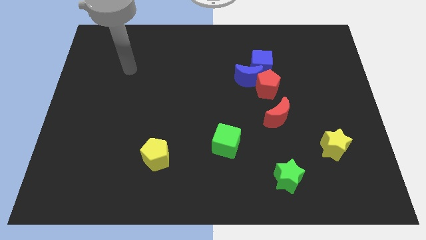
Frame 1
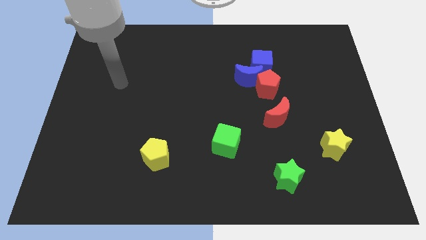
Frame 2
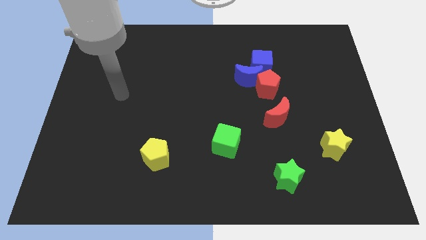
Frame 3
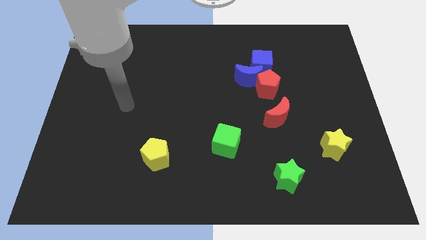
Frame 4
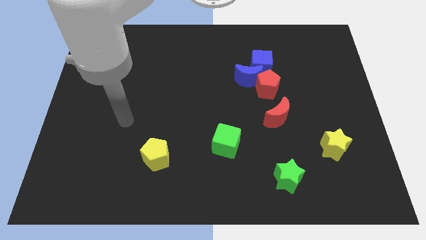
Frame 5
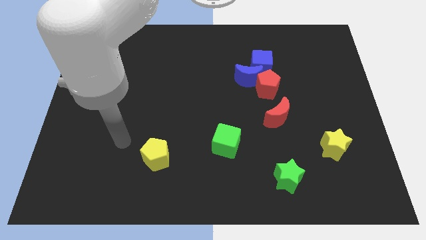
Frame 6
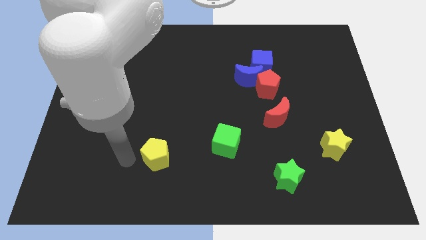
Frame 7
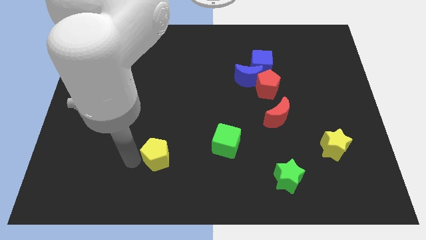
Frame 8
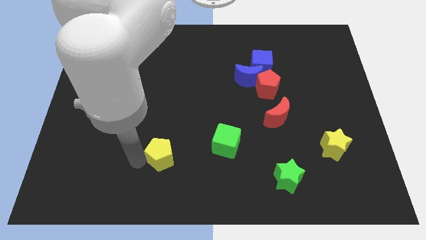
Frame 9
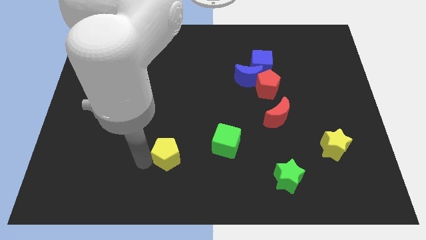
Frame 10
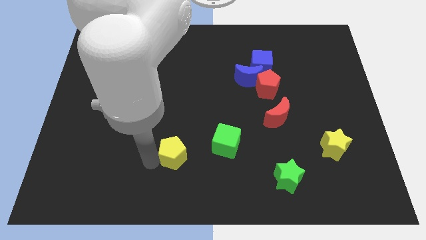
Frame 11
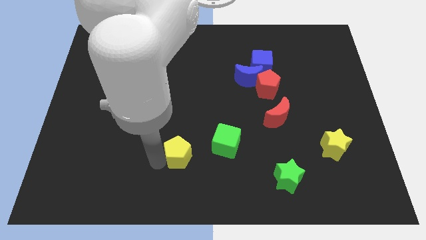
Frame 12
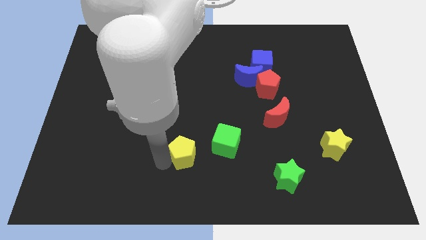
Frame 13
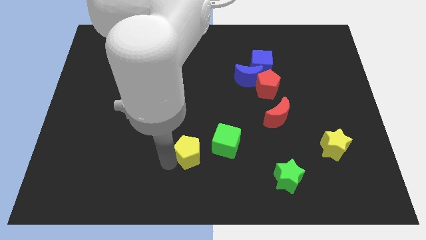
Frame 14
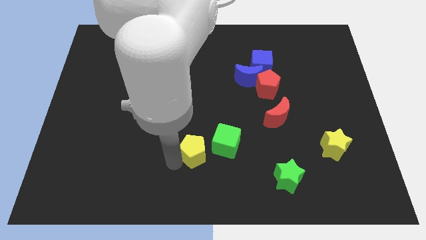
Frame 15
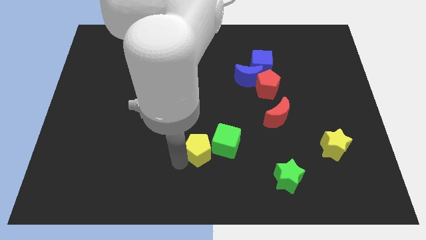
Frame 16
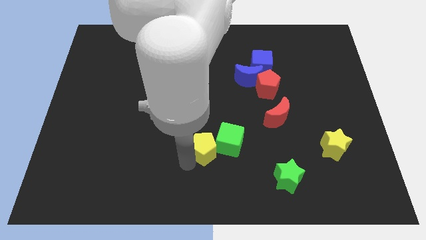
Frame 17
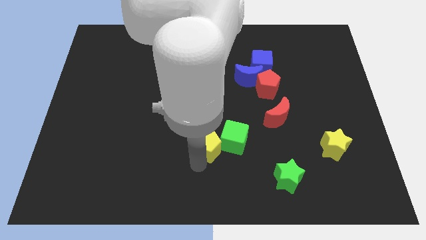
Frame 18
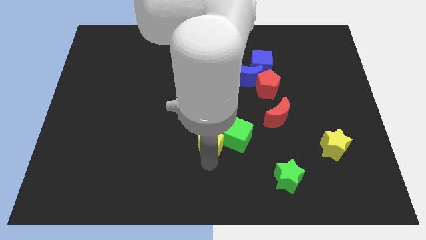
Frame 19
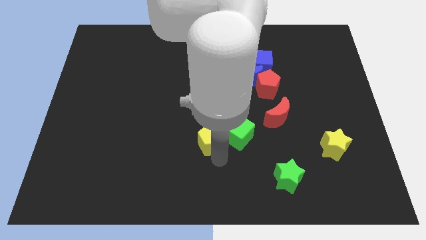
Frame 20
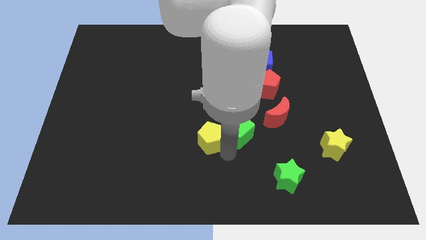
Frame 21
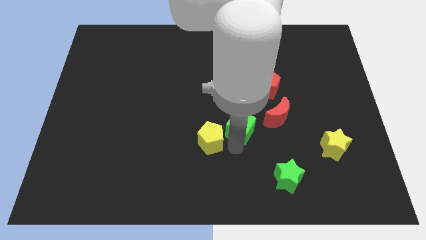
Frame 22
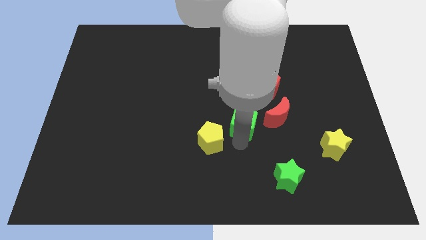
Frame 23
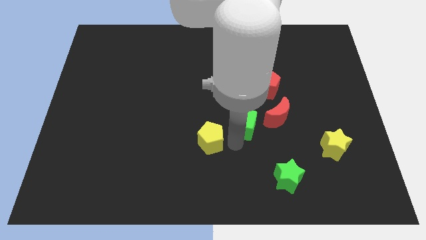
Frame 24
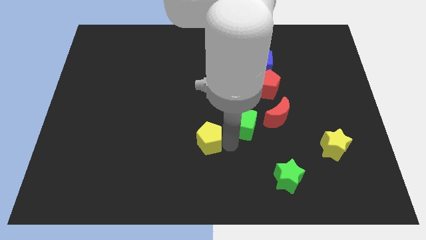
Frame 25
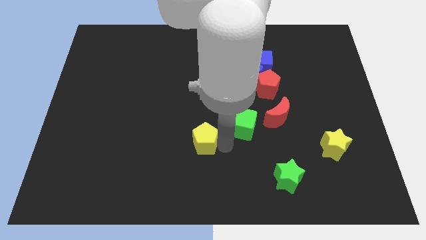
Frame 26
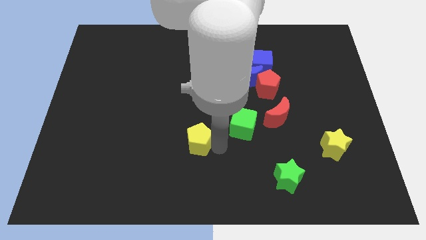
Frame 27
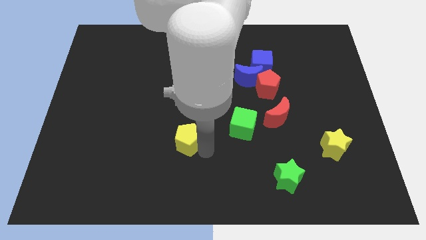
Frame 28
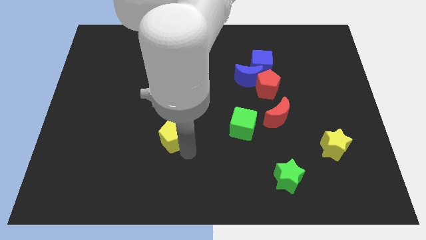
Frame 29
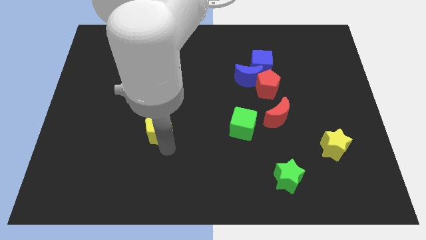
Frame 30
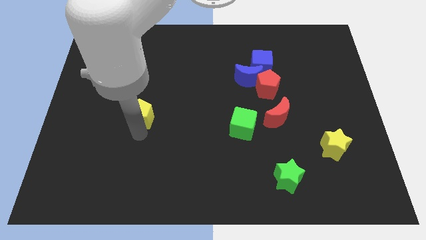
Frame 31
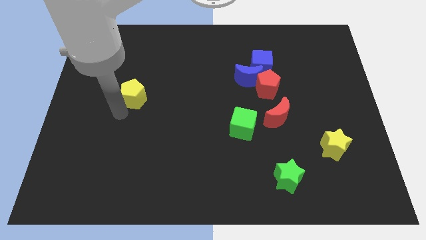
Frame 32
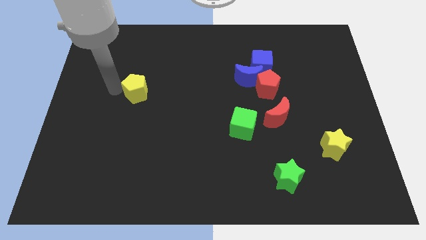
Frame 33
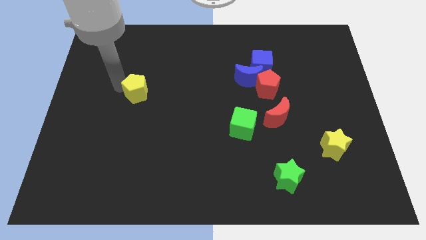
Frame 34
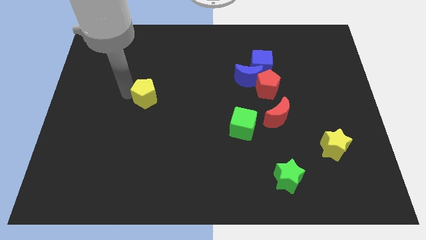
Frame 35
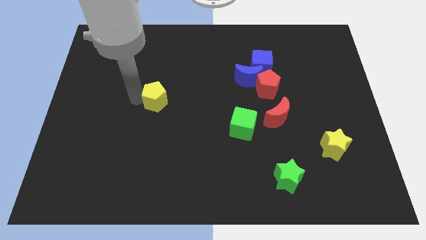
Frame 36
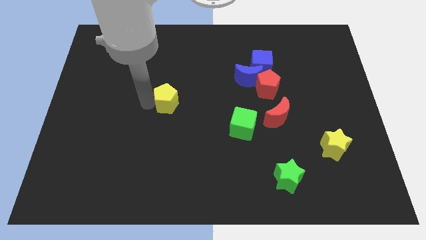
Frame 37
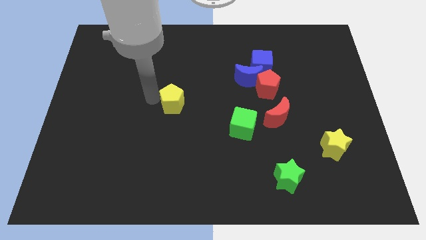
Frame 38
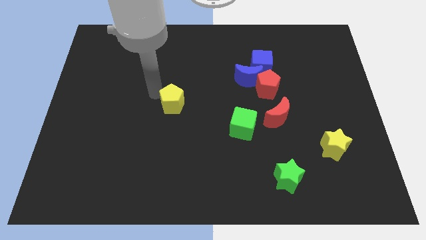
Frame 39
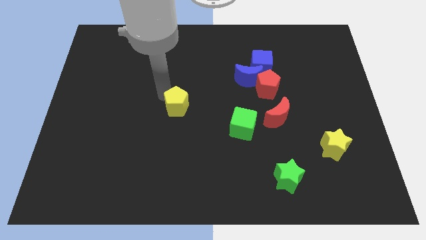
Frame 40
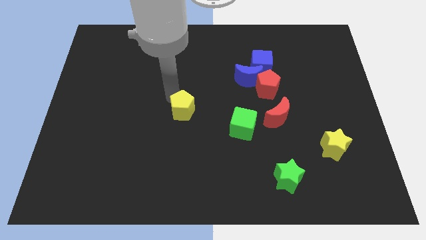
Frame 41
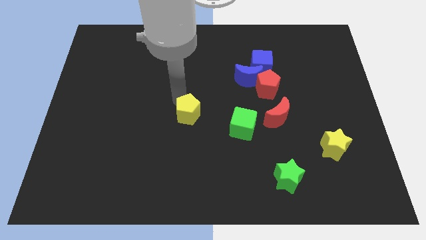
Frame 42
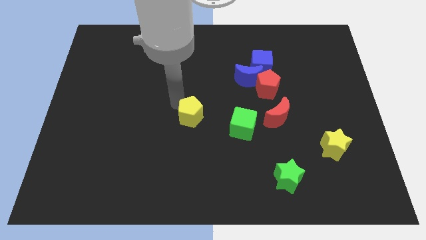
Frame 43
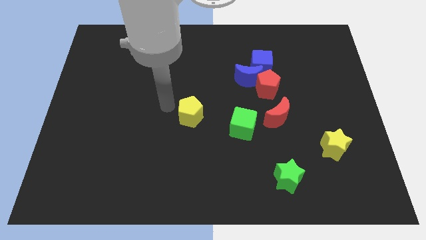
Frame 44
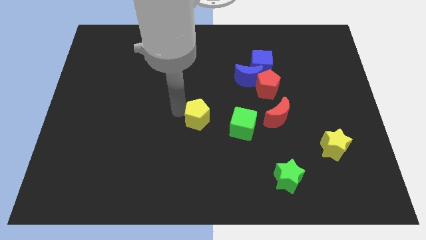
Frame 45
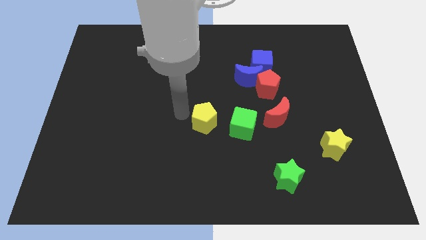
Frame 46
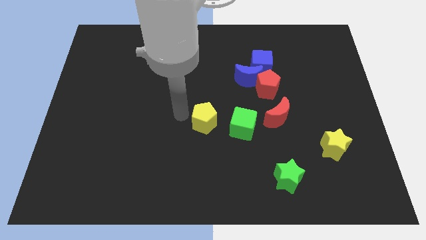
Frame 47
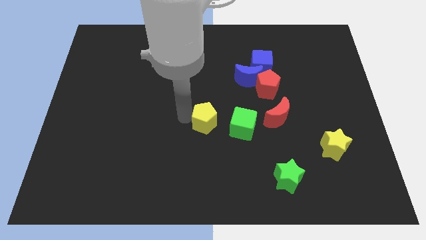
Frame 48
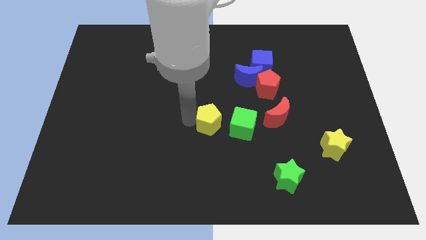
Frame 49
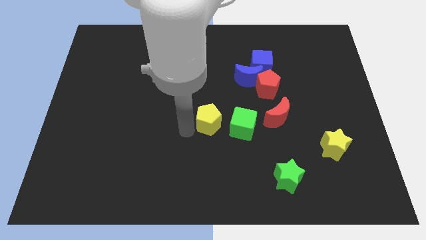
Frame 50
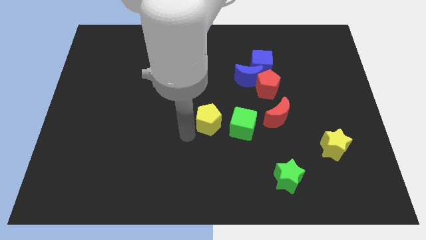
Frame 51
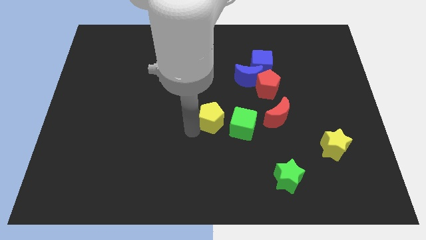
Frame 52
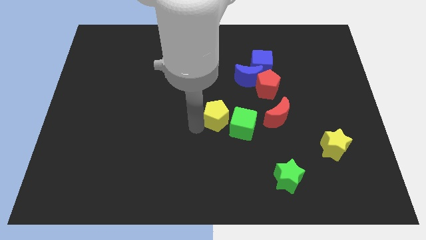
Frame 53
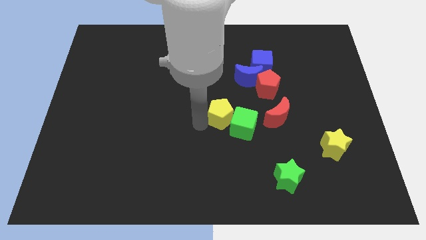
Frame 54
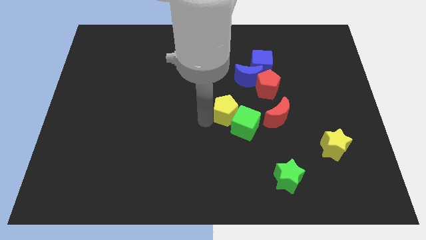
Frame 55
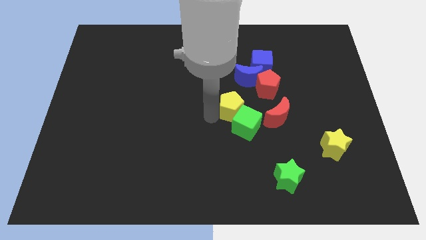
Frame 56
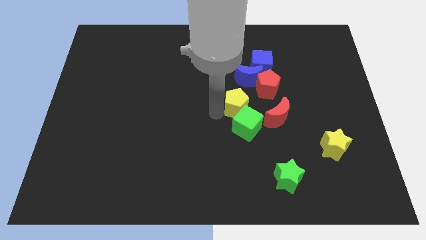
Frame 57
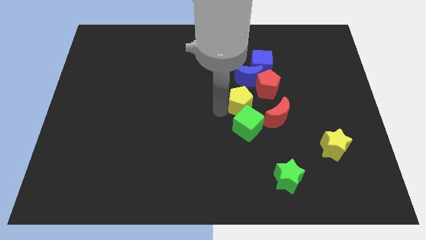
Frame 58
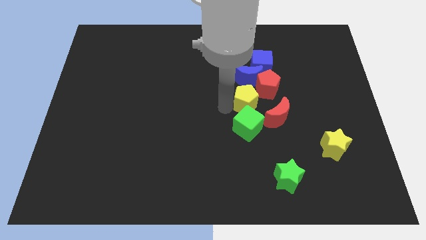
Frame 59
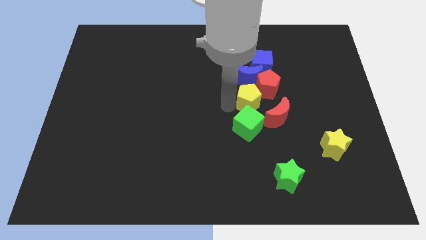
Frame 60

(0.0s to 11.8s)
put the yellow pentagon next to the red pentagon

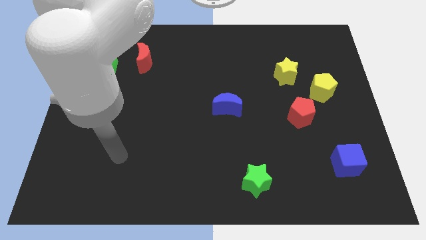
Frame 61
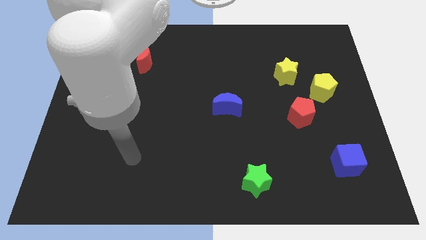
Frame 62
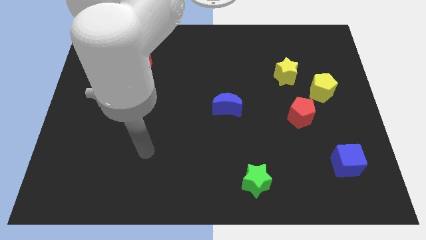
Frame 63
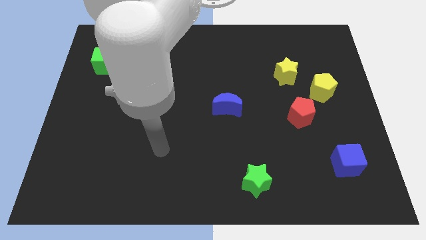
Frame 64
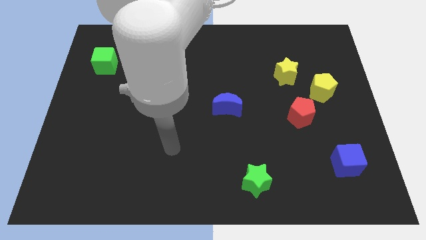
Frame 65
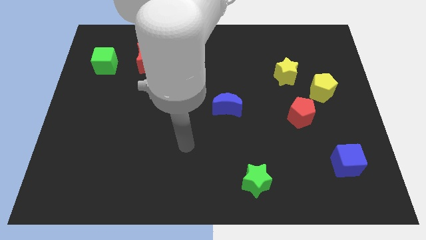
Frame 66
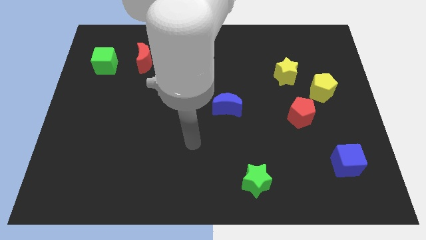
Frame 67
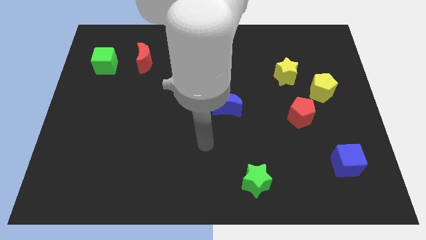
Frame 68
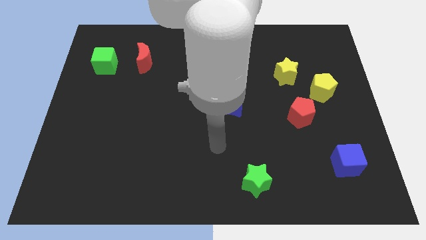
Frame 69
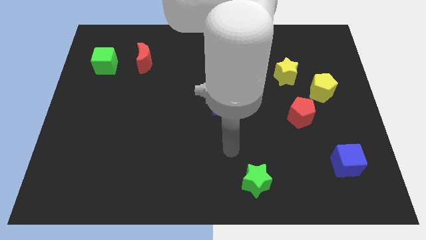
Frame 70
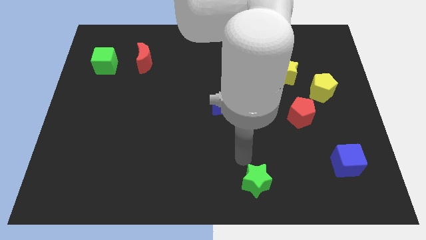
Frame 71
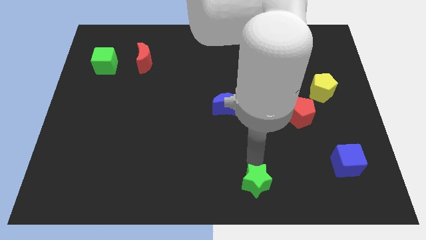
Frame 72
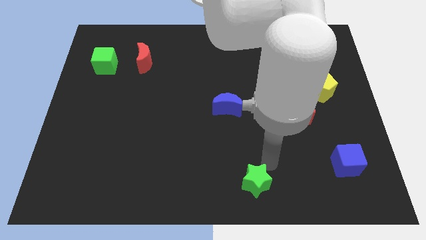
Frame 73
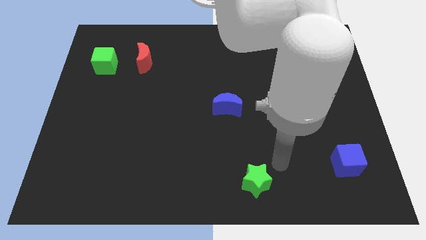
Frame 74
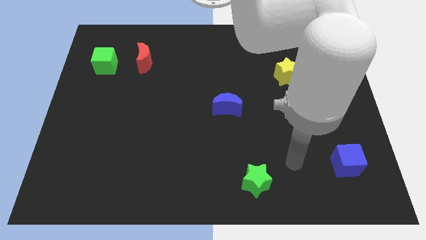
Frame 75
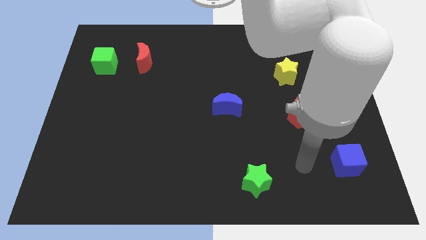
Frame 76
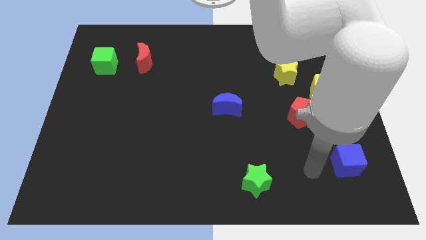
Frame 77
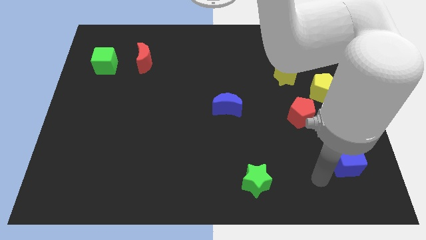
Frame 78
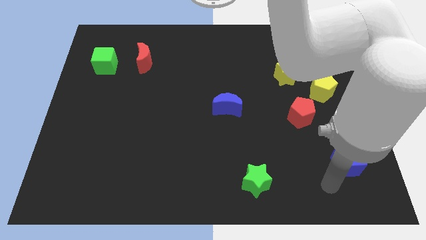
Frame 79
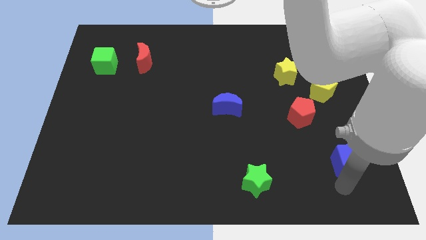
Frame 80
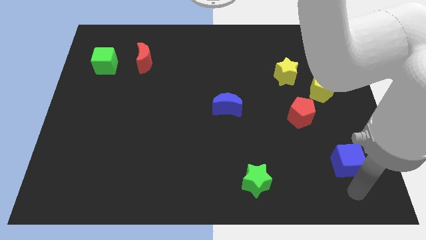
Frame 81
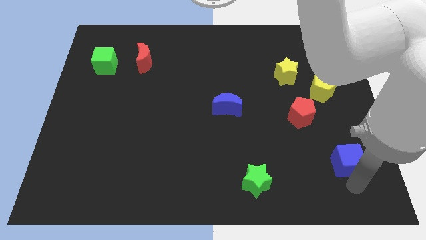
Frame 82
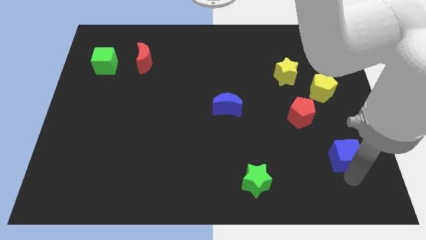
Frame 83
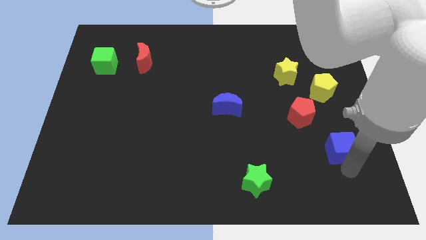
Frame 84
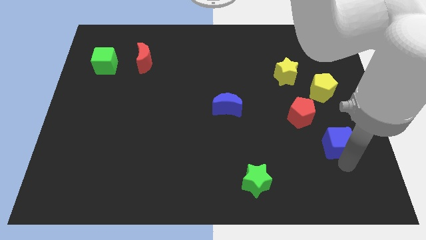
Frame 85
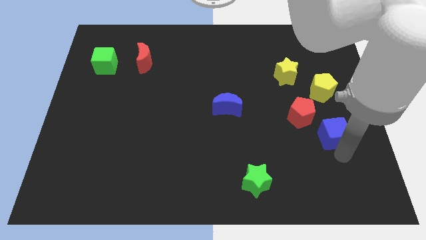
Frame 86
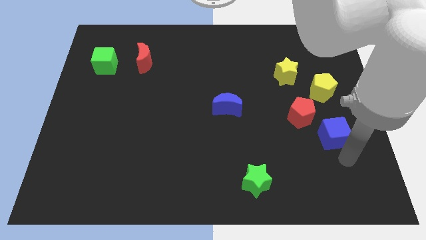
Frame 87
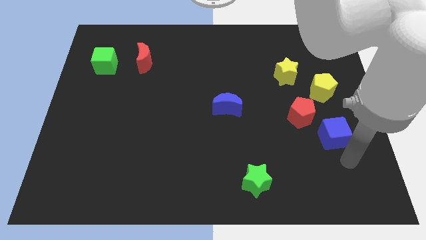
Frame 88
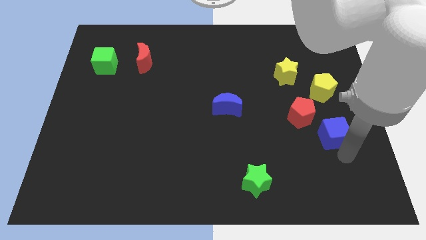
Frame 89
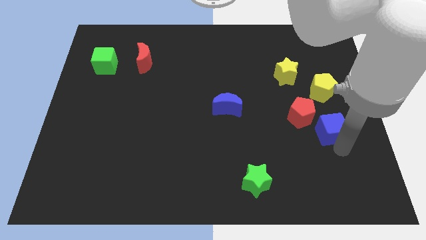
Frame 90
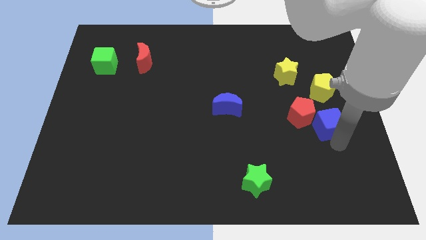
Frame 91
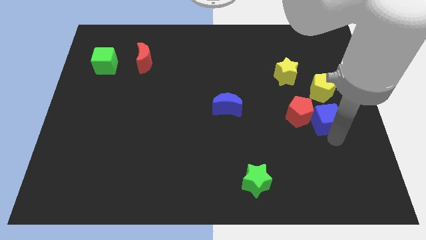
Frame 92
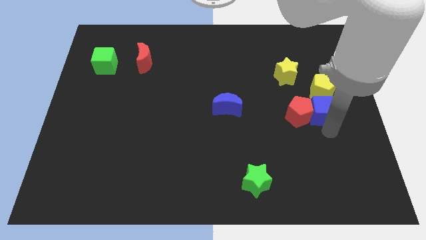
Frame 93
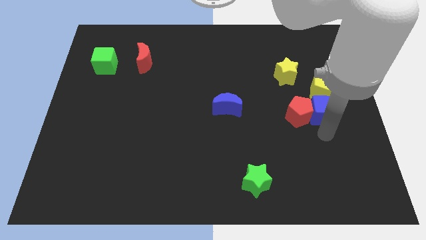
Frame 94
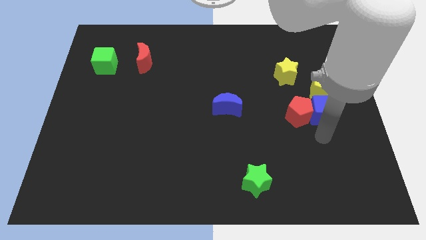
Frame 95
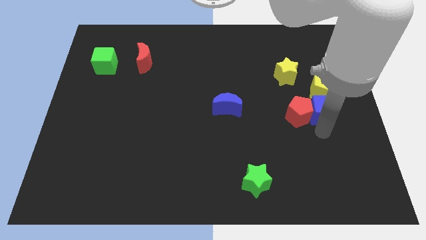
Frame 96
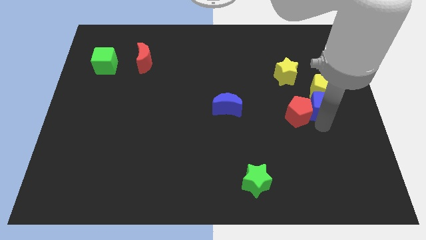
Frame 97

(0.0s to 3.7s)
move the blue cube next to the yellow pentagon
